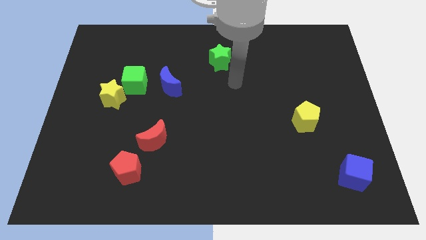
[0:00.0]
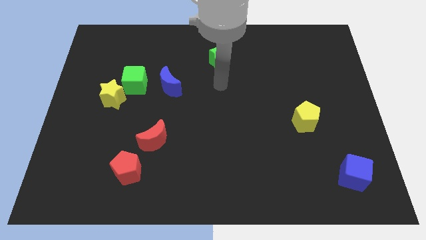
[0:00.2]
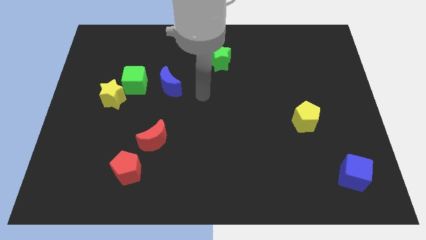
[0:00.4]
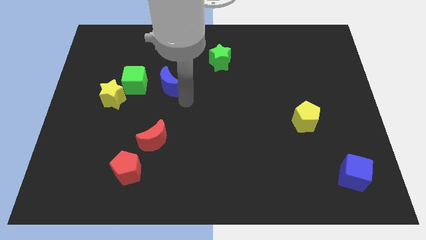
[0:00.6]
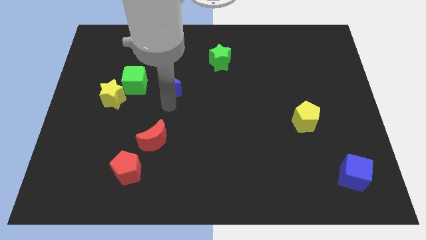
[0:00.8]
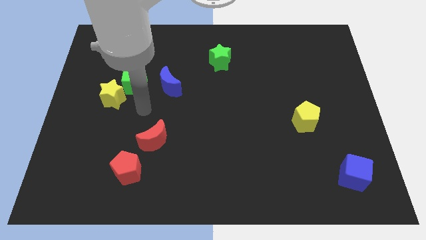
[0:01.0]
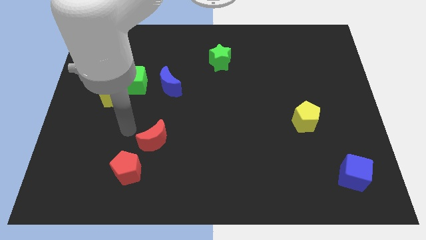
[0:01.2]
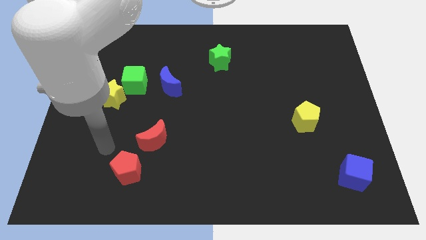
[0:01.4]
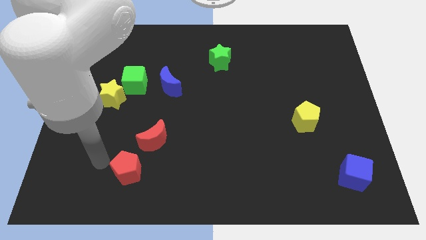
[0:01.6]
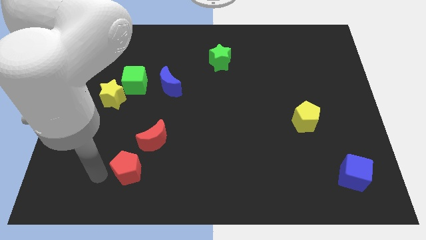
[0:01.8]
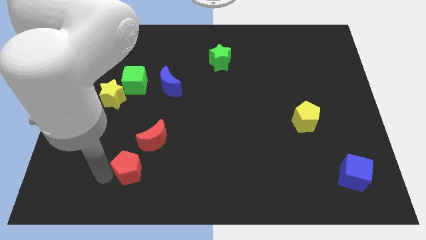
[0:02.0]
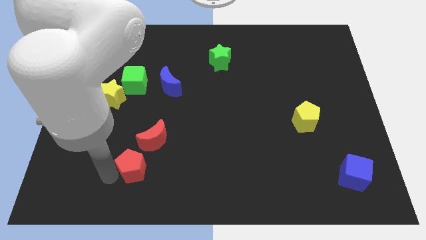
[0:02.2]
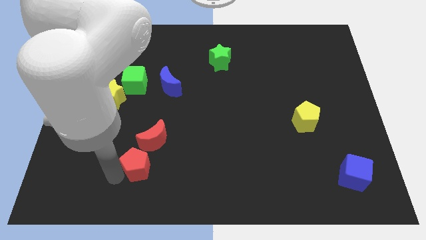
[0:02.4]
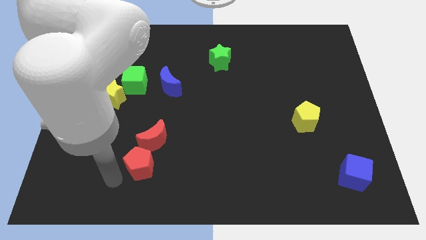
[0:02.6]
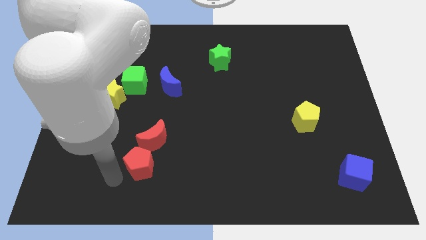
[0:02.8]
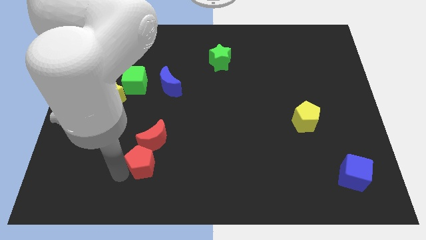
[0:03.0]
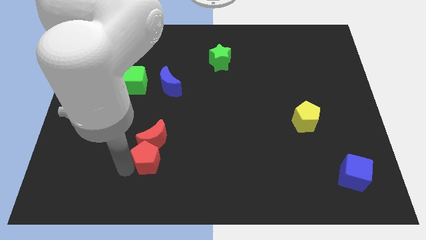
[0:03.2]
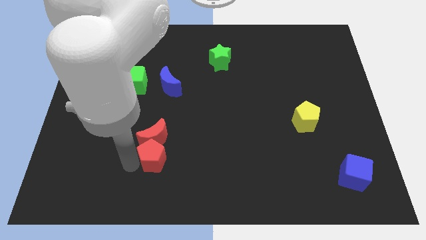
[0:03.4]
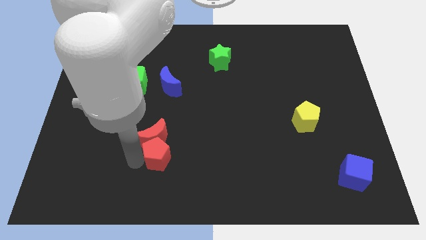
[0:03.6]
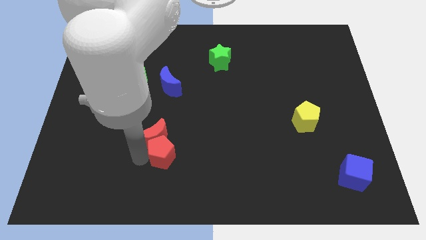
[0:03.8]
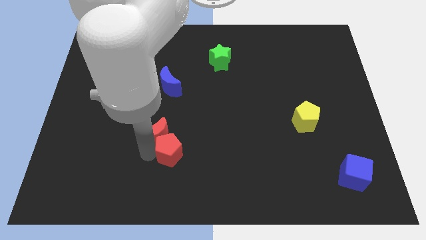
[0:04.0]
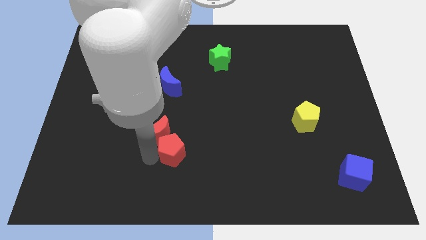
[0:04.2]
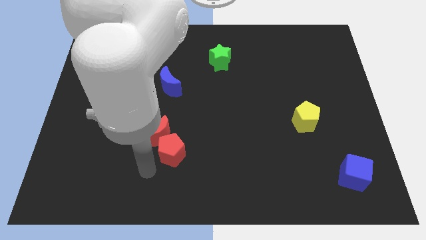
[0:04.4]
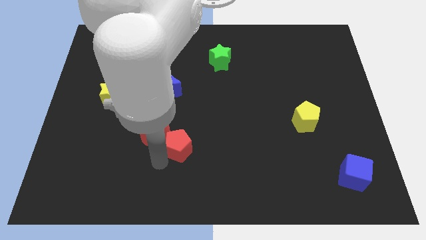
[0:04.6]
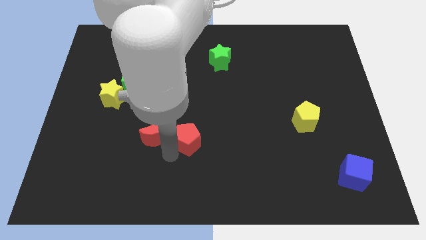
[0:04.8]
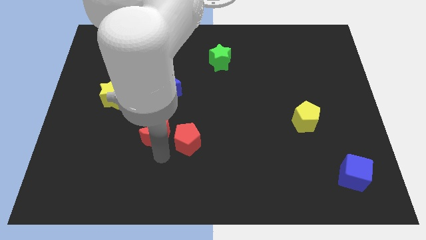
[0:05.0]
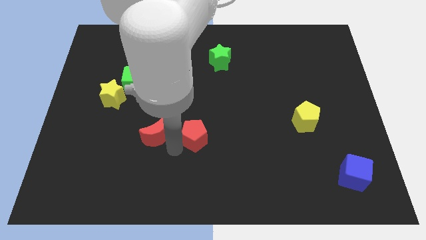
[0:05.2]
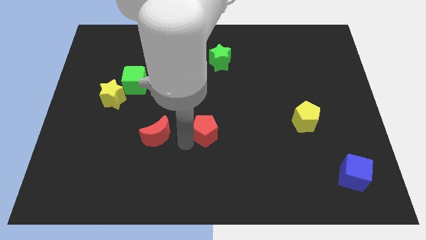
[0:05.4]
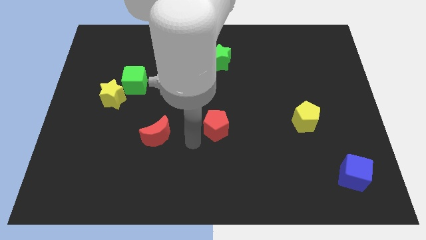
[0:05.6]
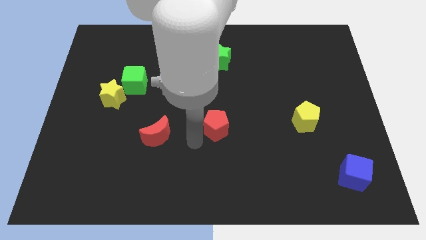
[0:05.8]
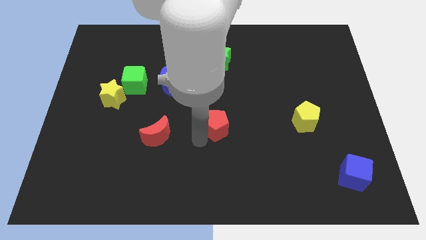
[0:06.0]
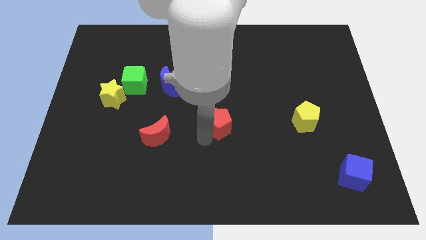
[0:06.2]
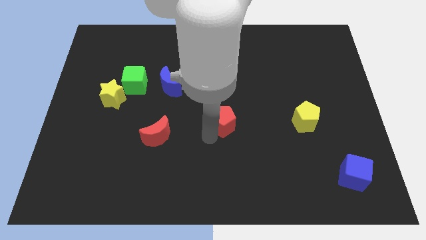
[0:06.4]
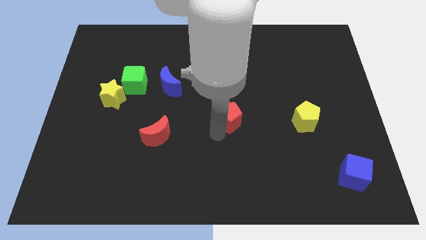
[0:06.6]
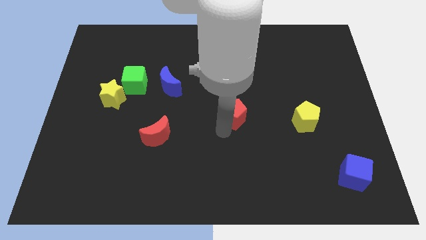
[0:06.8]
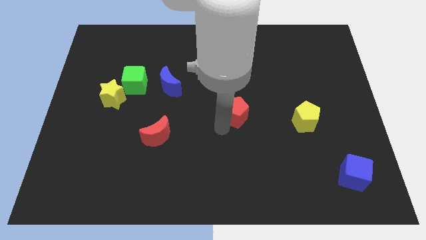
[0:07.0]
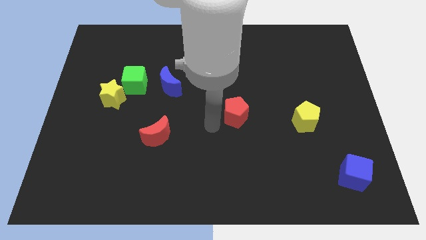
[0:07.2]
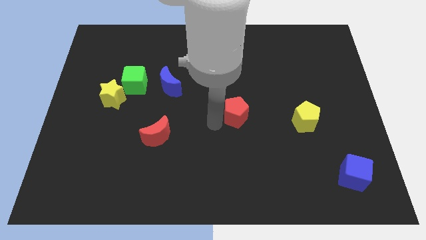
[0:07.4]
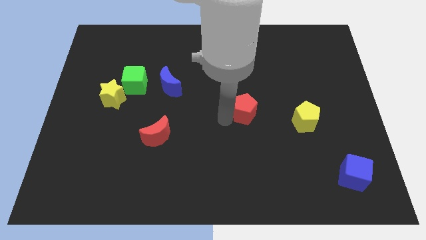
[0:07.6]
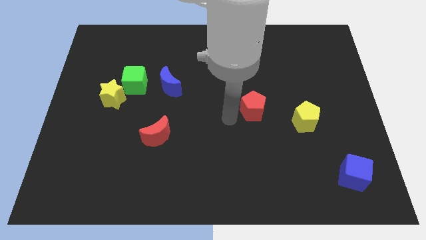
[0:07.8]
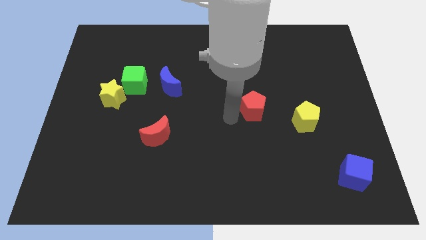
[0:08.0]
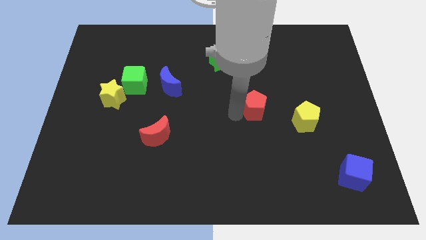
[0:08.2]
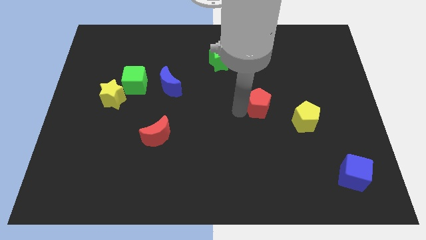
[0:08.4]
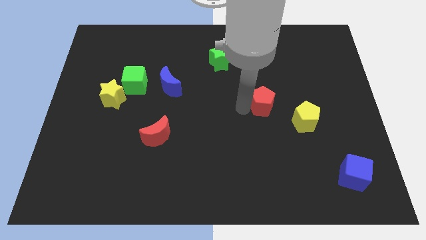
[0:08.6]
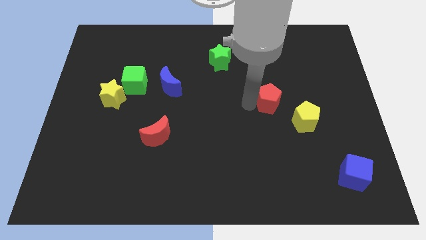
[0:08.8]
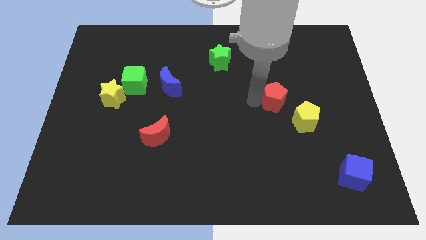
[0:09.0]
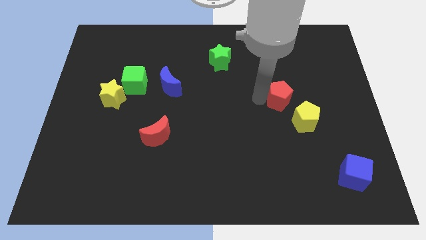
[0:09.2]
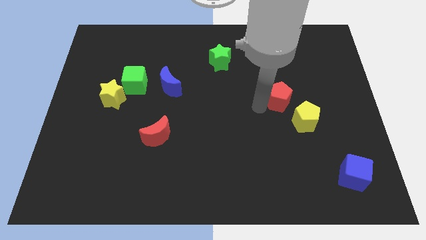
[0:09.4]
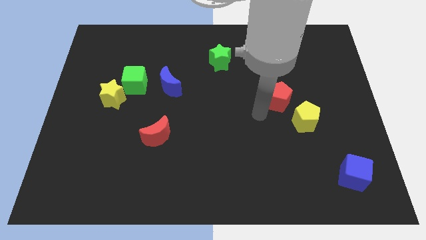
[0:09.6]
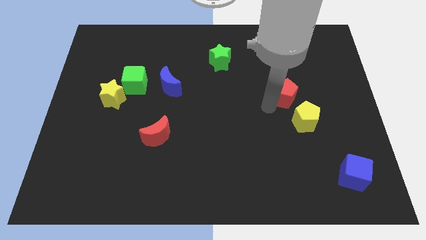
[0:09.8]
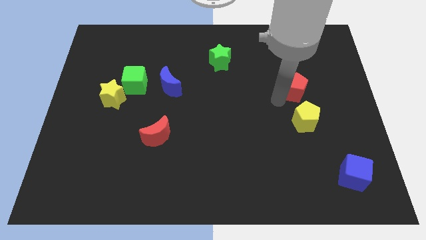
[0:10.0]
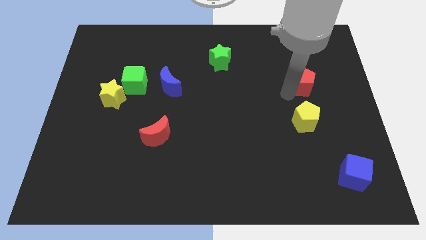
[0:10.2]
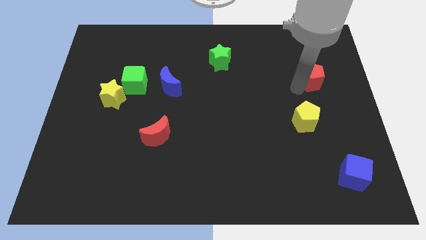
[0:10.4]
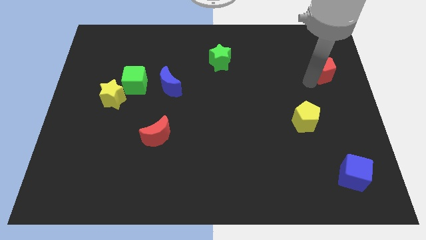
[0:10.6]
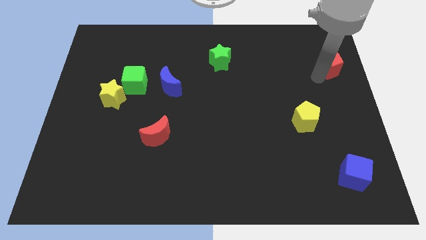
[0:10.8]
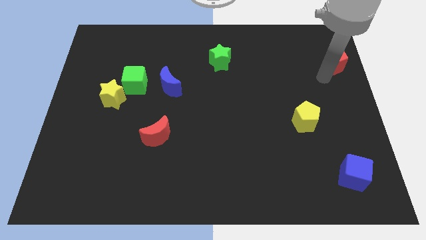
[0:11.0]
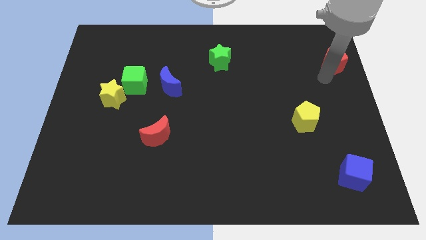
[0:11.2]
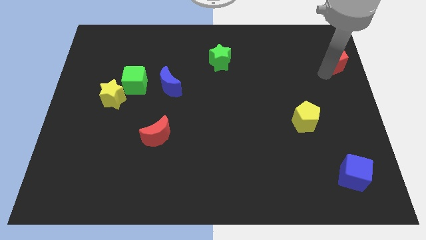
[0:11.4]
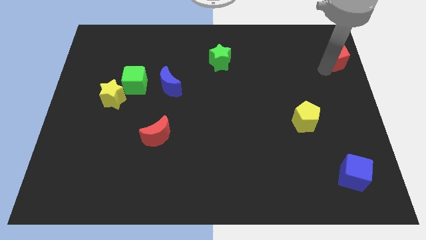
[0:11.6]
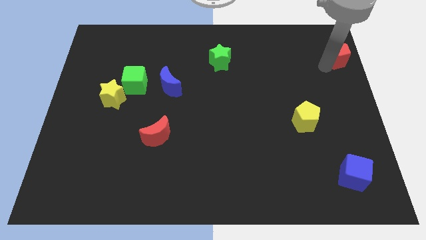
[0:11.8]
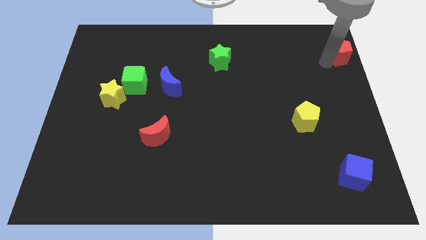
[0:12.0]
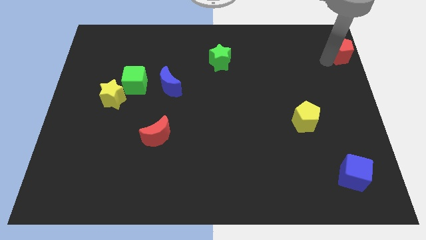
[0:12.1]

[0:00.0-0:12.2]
push the red pentagon to the top right corner
